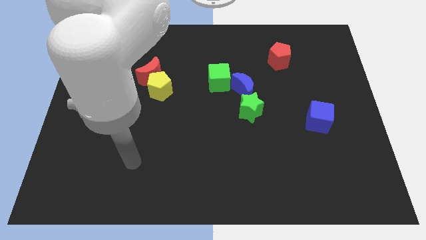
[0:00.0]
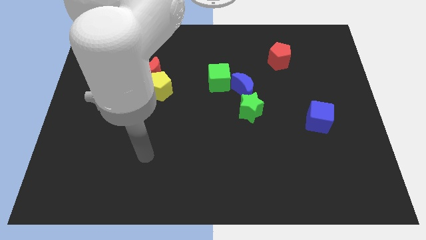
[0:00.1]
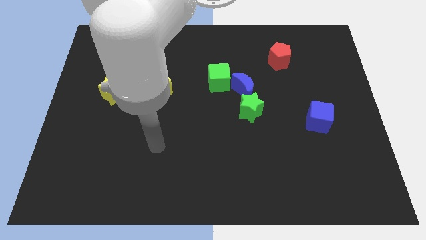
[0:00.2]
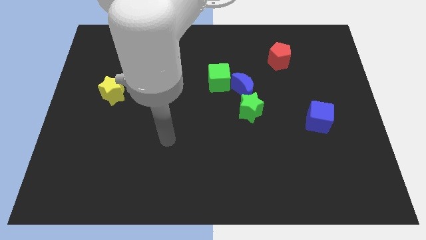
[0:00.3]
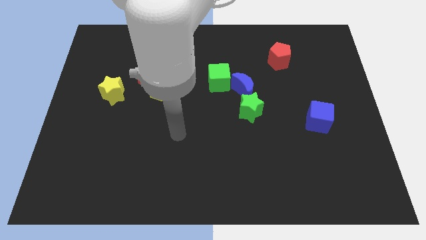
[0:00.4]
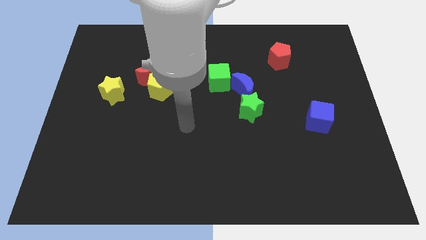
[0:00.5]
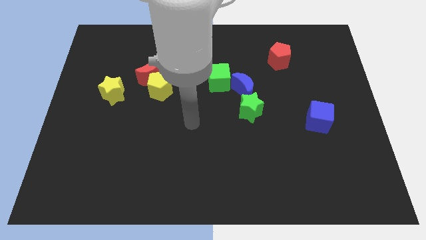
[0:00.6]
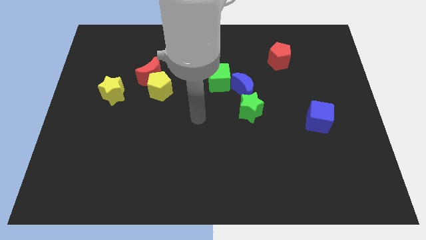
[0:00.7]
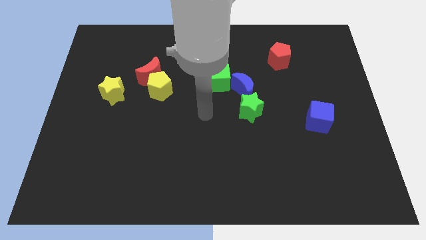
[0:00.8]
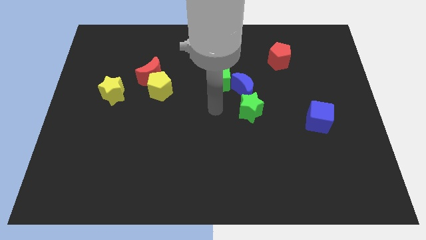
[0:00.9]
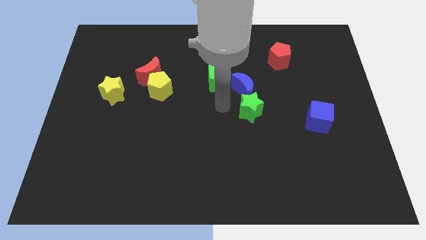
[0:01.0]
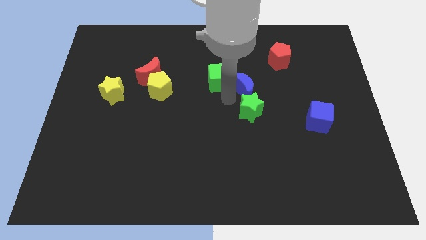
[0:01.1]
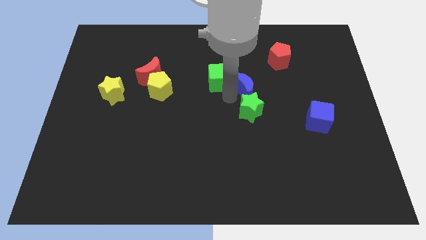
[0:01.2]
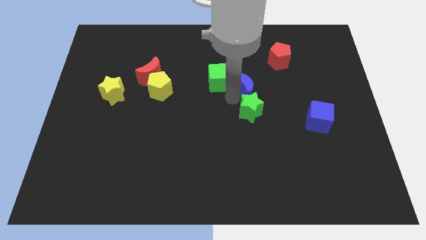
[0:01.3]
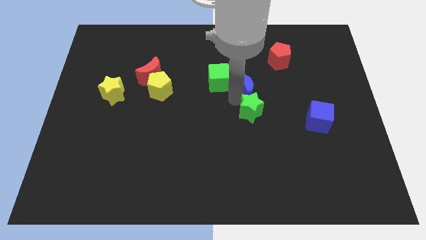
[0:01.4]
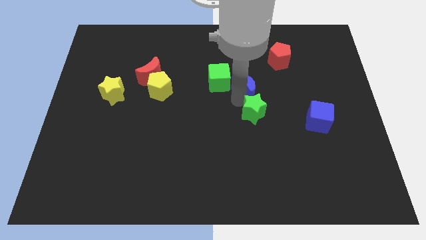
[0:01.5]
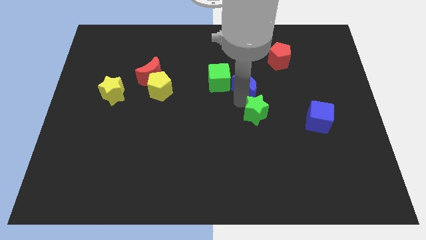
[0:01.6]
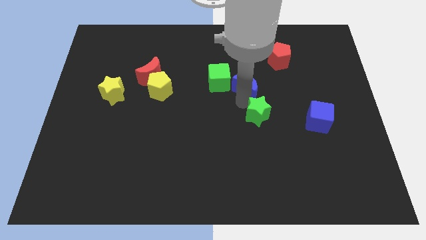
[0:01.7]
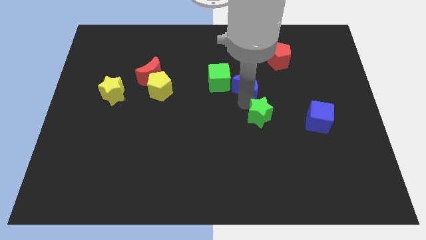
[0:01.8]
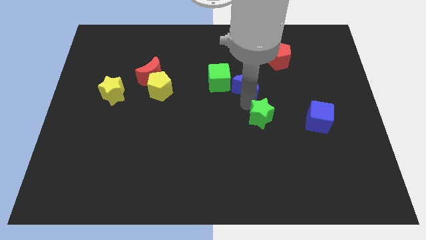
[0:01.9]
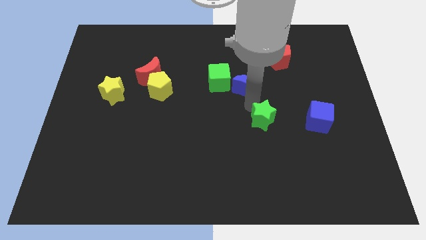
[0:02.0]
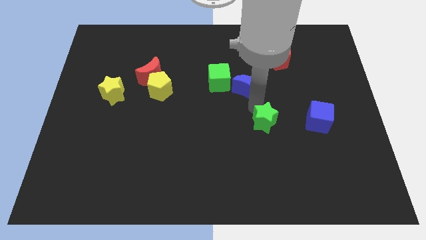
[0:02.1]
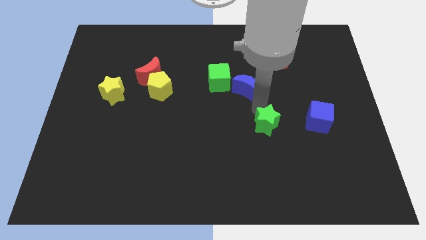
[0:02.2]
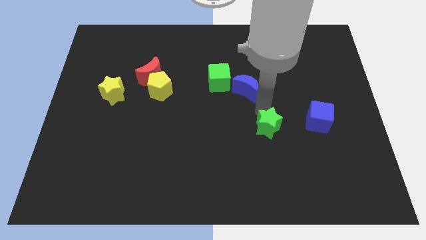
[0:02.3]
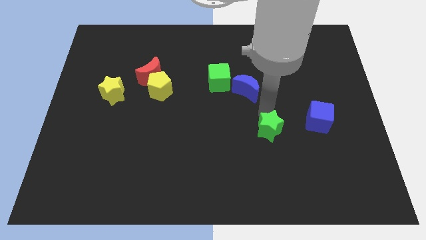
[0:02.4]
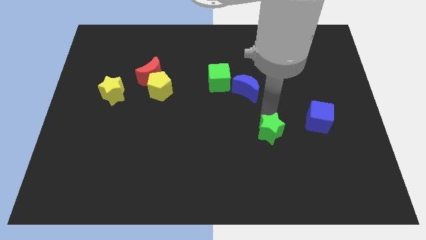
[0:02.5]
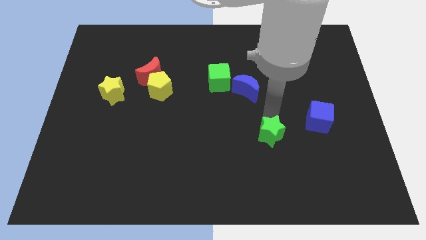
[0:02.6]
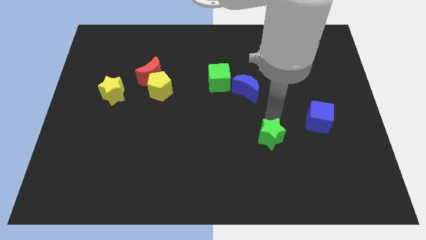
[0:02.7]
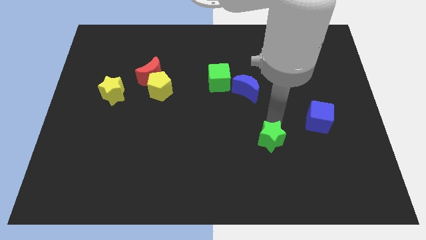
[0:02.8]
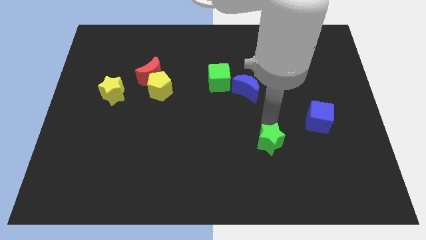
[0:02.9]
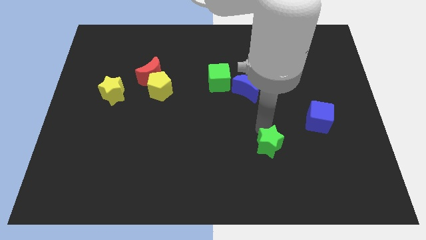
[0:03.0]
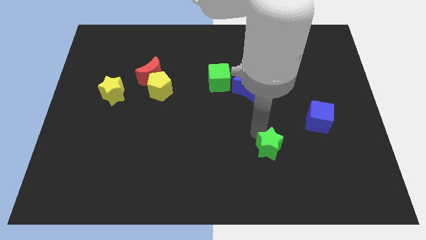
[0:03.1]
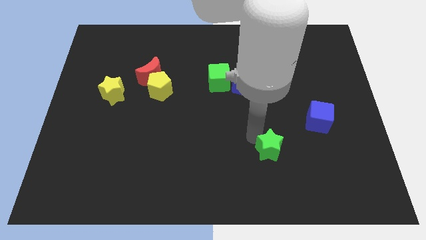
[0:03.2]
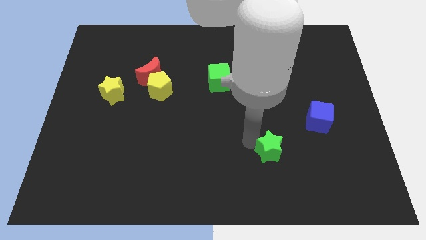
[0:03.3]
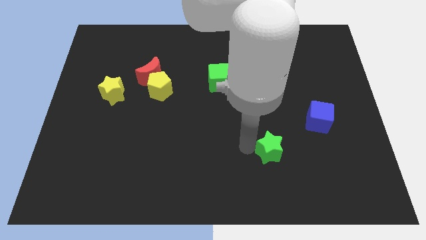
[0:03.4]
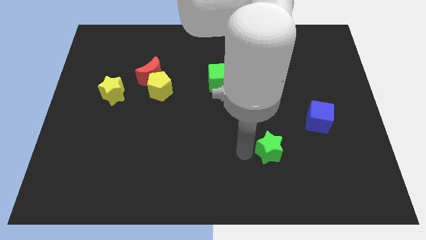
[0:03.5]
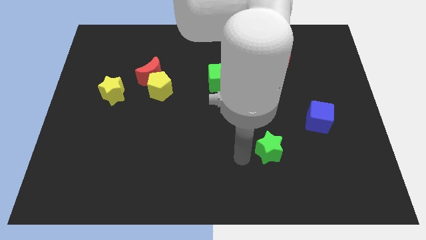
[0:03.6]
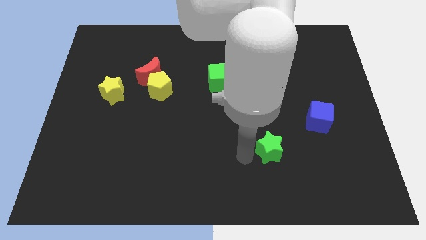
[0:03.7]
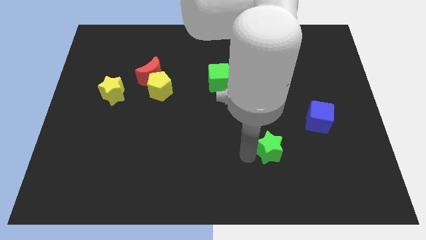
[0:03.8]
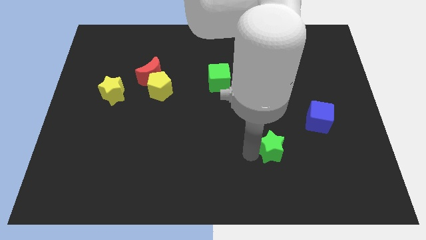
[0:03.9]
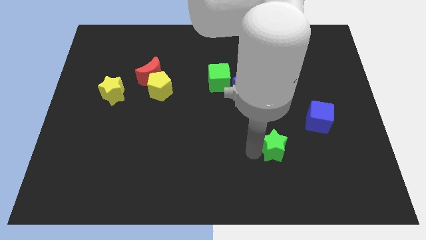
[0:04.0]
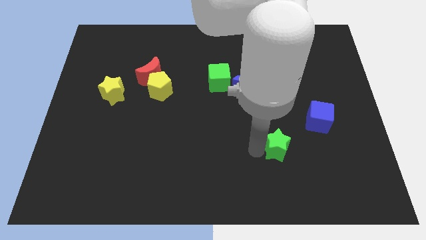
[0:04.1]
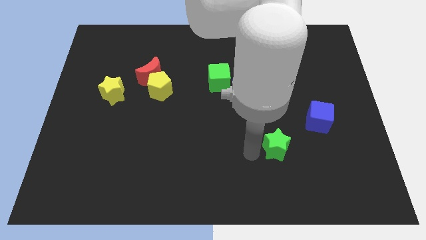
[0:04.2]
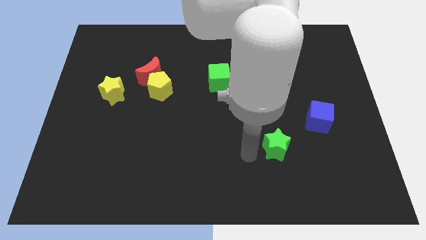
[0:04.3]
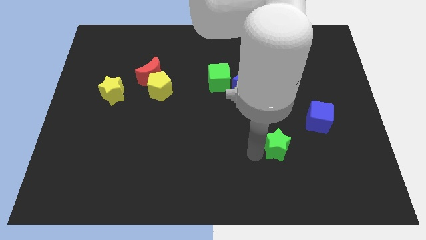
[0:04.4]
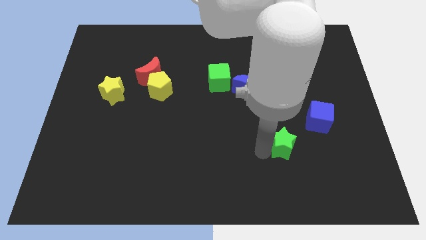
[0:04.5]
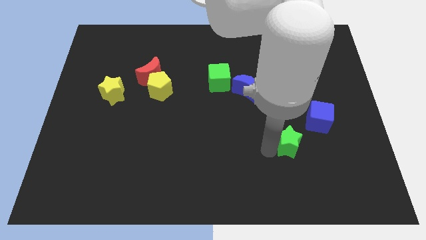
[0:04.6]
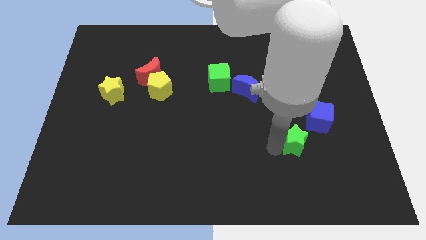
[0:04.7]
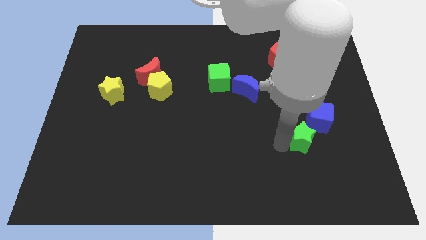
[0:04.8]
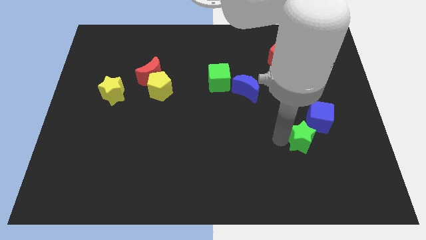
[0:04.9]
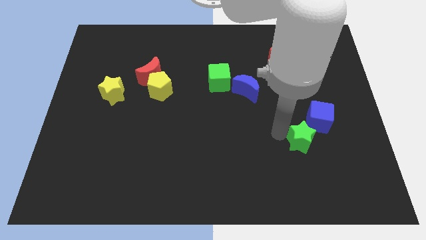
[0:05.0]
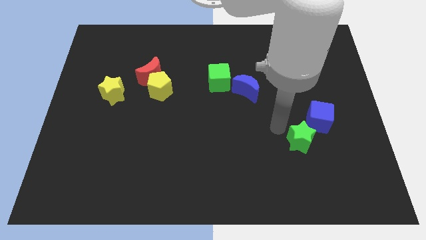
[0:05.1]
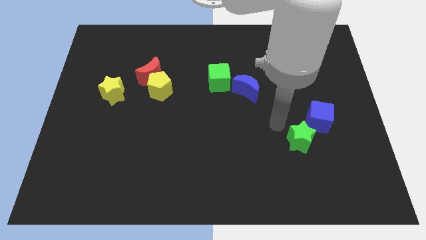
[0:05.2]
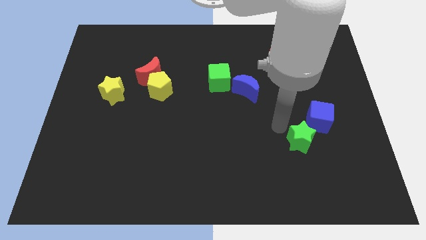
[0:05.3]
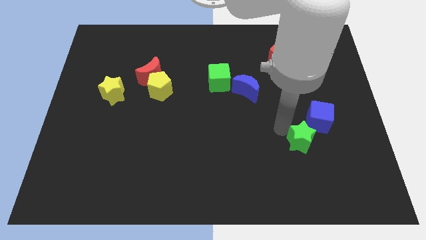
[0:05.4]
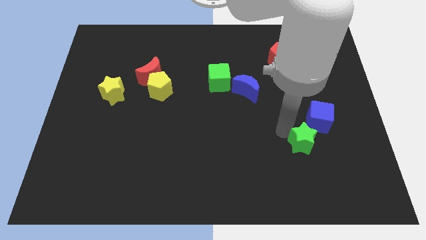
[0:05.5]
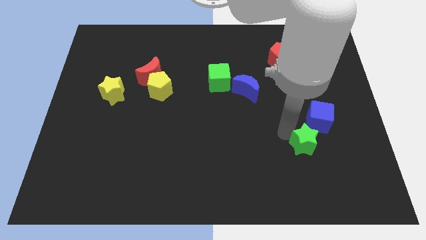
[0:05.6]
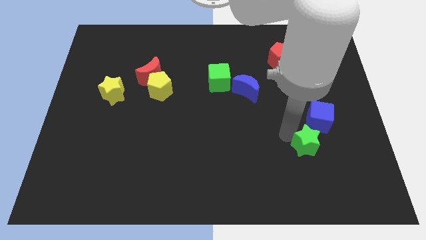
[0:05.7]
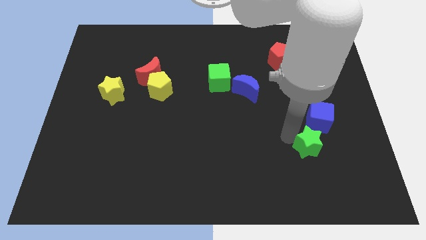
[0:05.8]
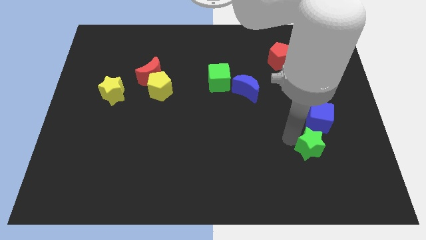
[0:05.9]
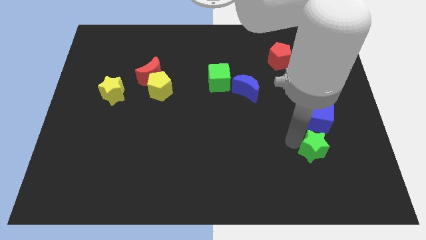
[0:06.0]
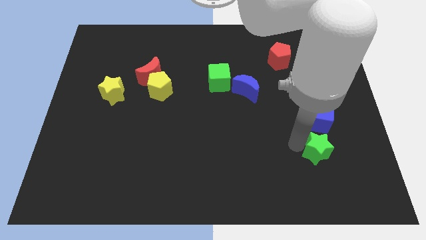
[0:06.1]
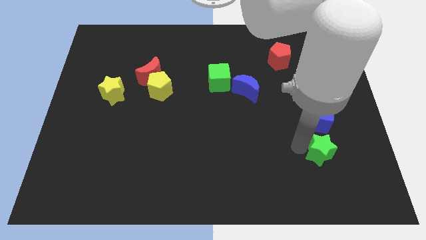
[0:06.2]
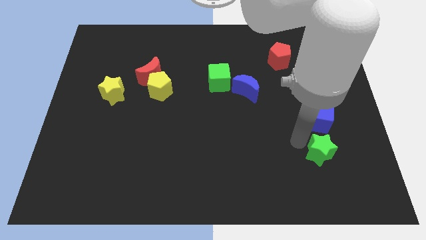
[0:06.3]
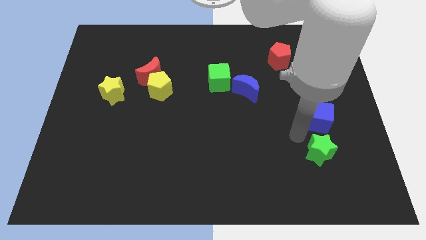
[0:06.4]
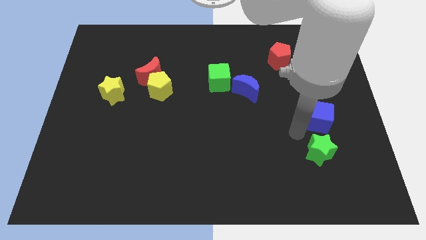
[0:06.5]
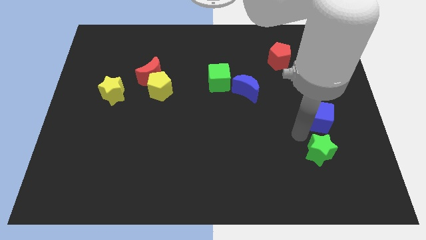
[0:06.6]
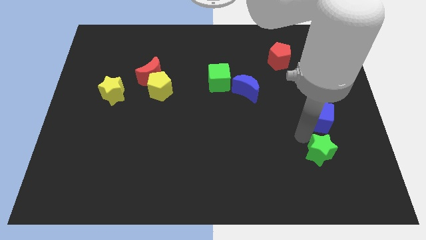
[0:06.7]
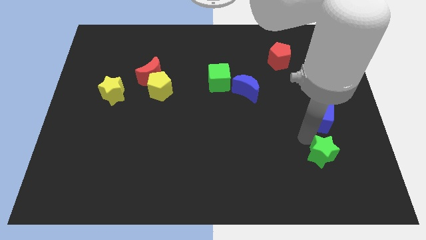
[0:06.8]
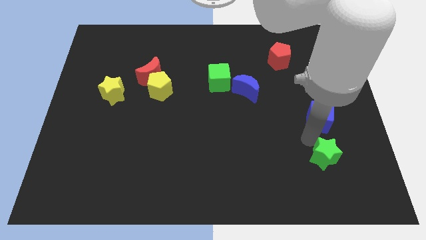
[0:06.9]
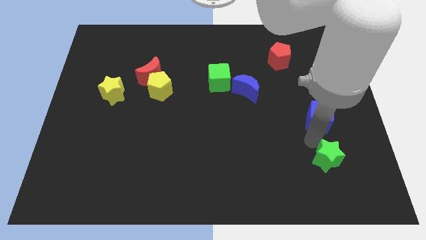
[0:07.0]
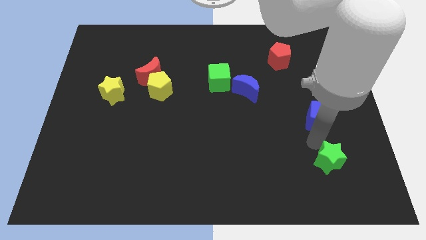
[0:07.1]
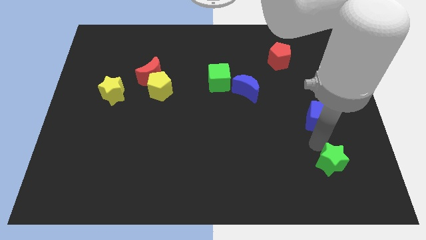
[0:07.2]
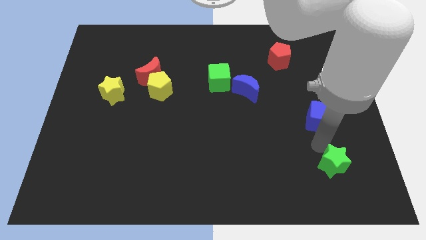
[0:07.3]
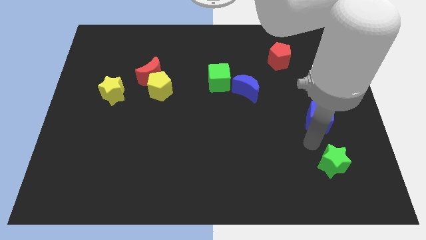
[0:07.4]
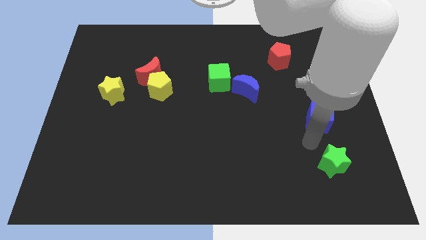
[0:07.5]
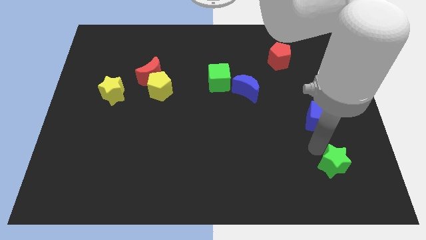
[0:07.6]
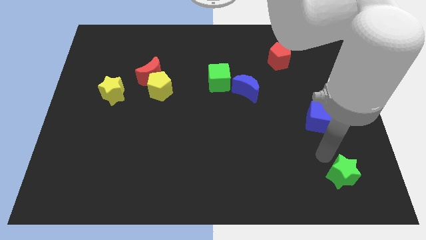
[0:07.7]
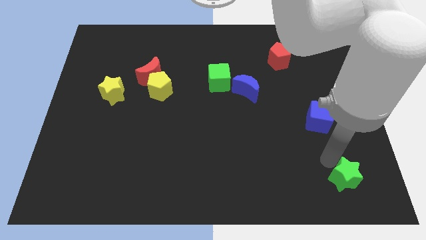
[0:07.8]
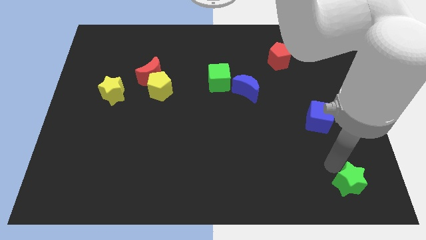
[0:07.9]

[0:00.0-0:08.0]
move the green star to the bottom right
